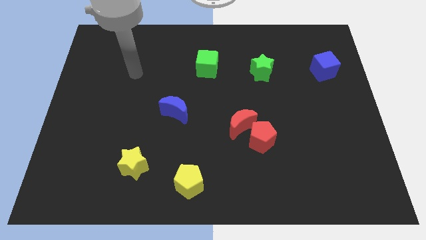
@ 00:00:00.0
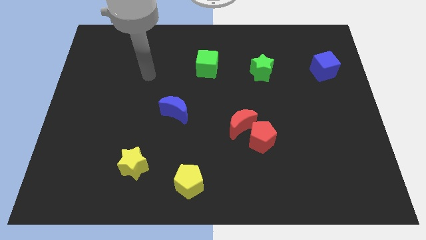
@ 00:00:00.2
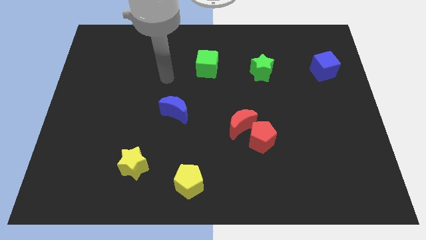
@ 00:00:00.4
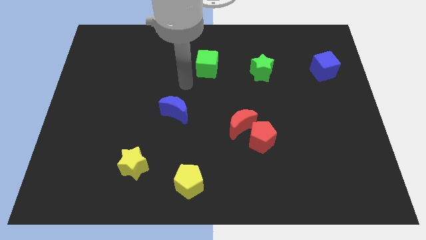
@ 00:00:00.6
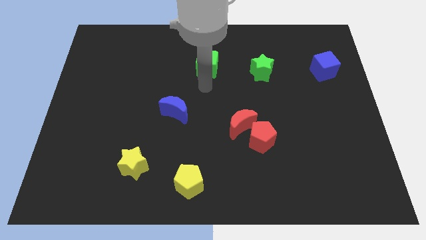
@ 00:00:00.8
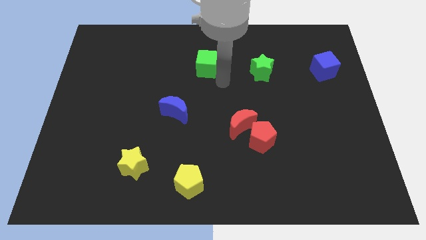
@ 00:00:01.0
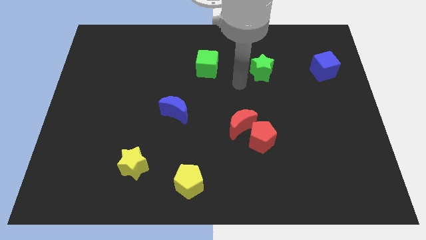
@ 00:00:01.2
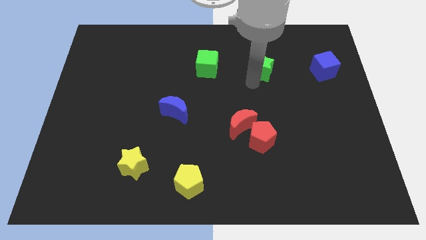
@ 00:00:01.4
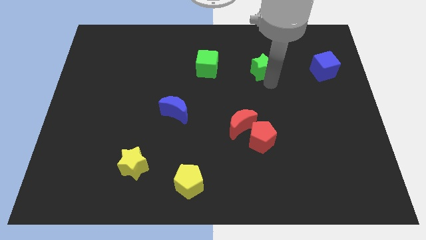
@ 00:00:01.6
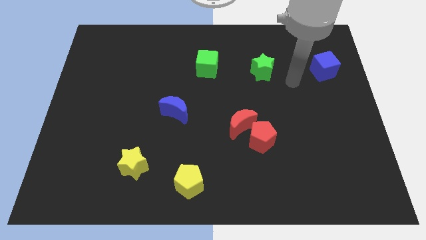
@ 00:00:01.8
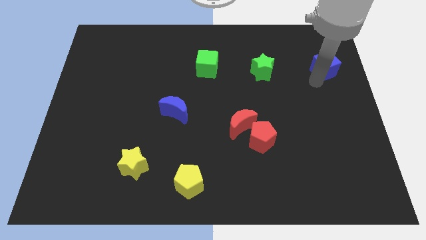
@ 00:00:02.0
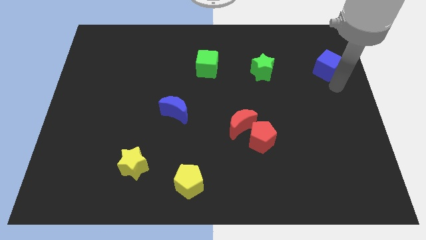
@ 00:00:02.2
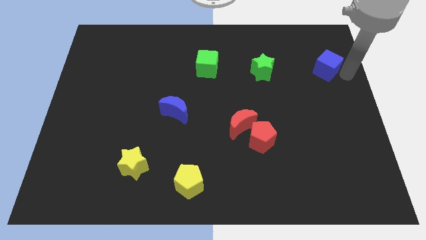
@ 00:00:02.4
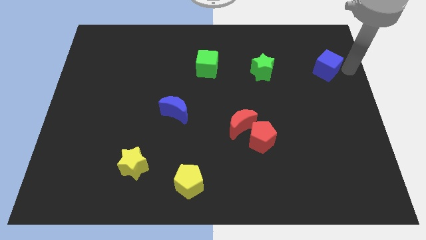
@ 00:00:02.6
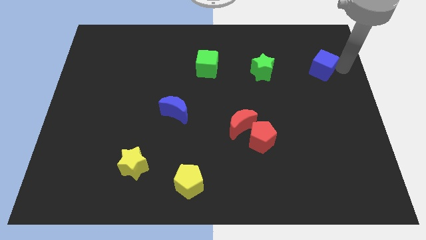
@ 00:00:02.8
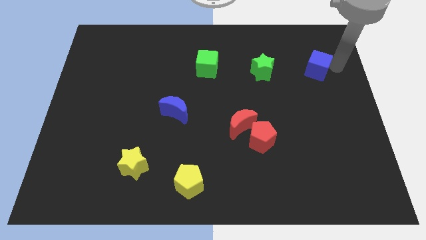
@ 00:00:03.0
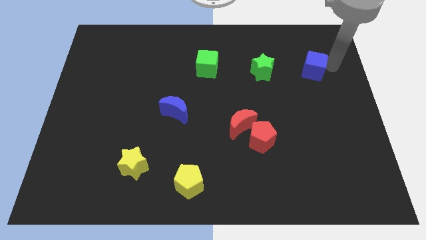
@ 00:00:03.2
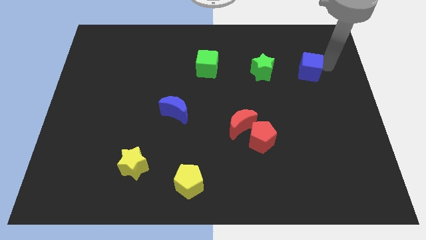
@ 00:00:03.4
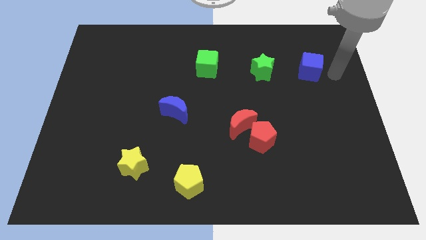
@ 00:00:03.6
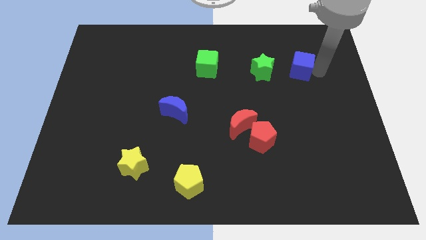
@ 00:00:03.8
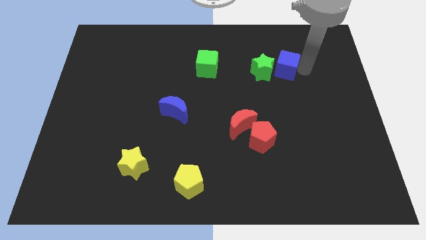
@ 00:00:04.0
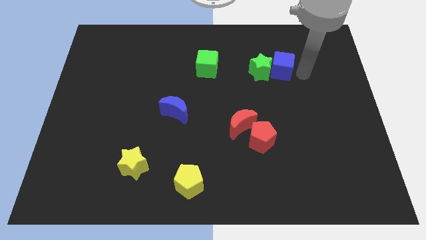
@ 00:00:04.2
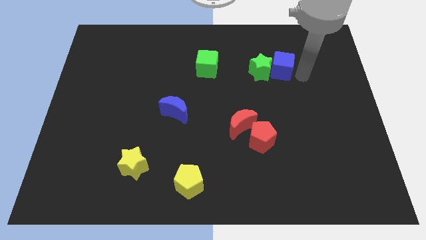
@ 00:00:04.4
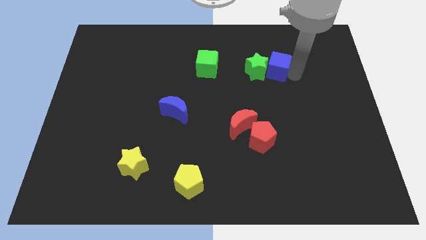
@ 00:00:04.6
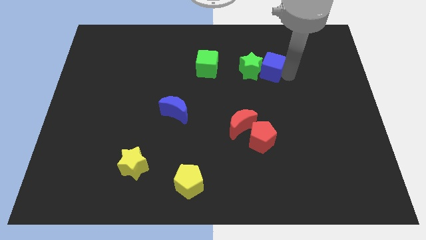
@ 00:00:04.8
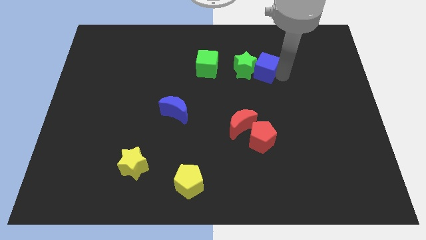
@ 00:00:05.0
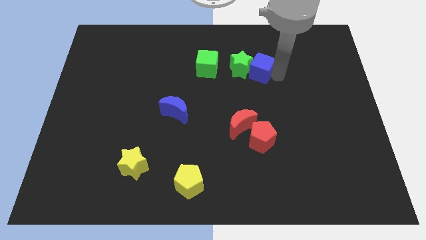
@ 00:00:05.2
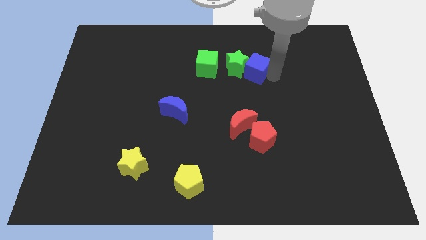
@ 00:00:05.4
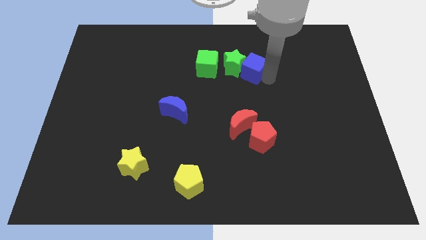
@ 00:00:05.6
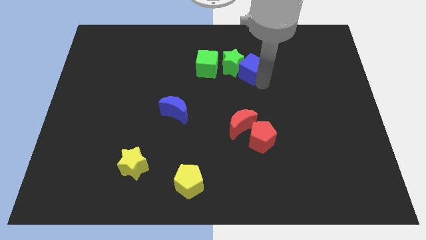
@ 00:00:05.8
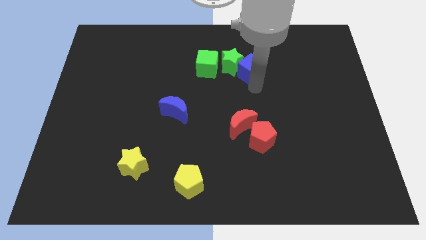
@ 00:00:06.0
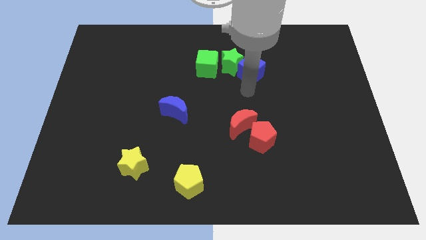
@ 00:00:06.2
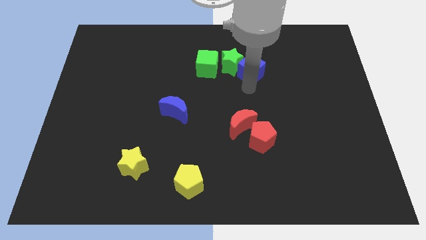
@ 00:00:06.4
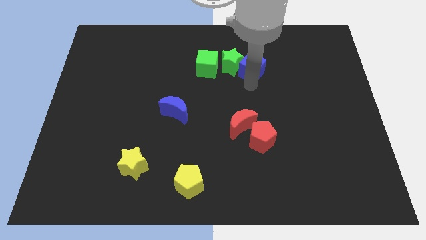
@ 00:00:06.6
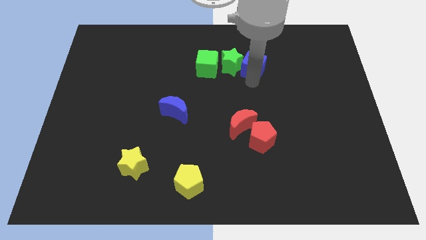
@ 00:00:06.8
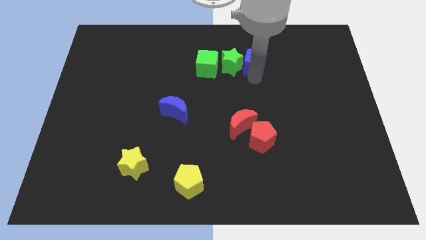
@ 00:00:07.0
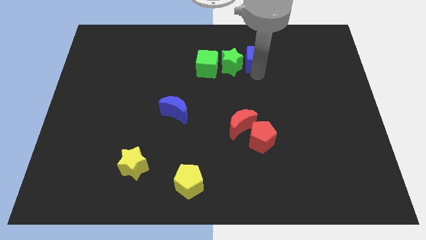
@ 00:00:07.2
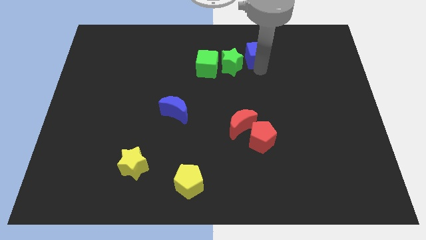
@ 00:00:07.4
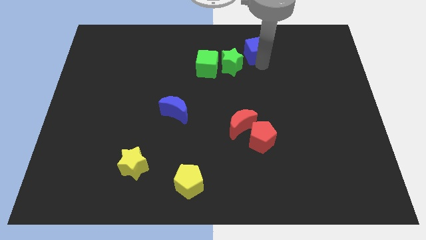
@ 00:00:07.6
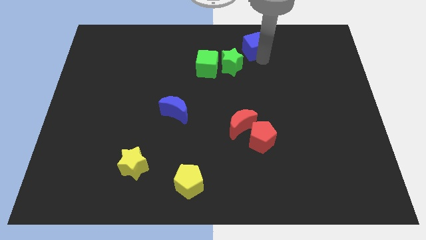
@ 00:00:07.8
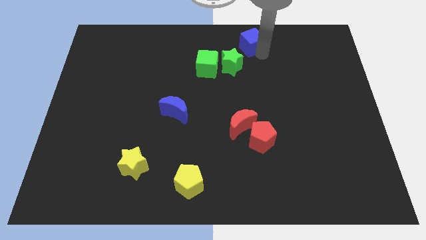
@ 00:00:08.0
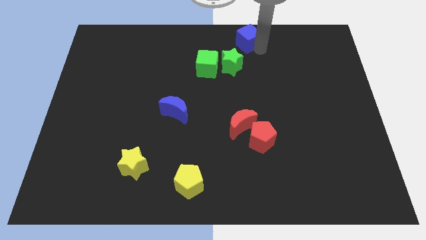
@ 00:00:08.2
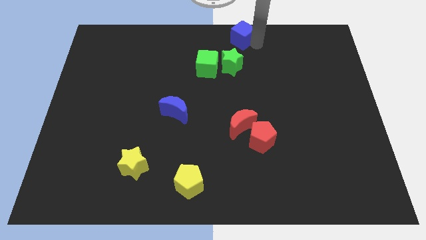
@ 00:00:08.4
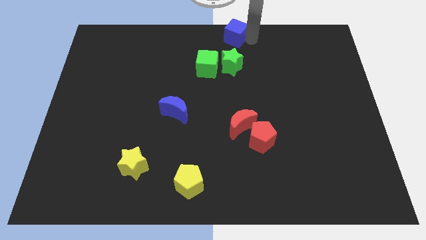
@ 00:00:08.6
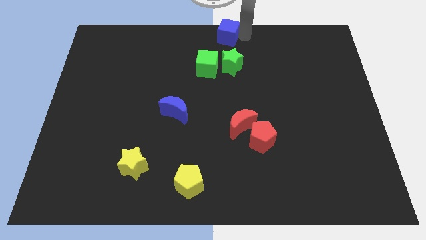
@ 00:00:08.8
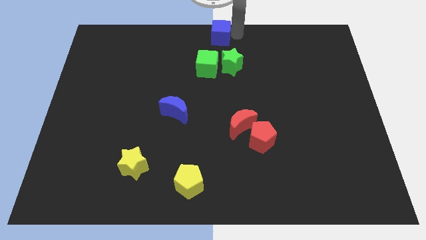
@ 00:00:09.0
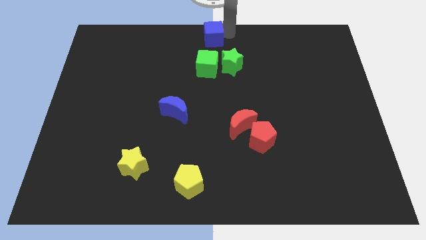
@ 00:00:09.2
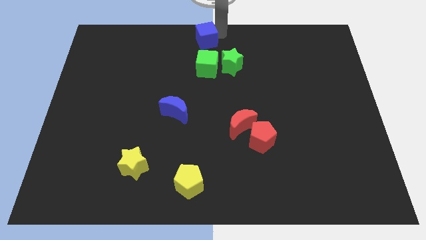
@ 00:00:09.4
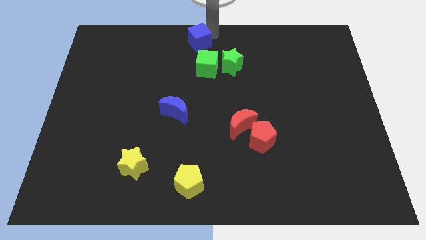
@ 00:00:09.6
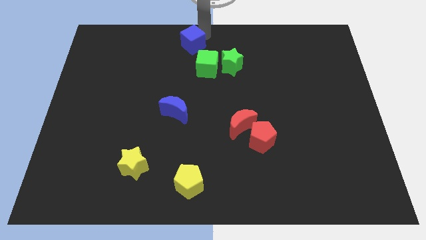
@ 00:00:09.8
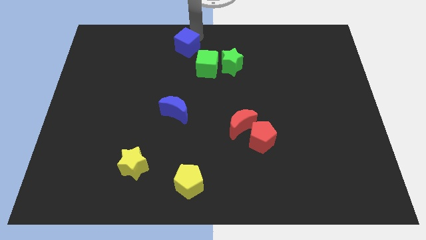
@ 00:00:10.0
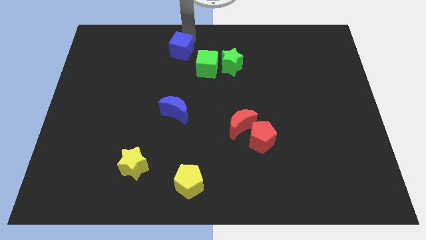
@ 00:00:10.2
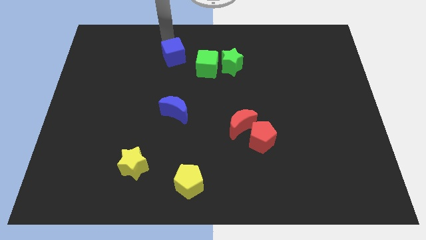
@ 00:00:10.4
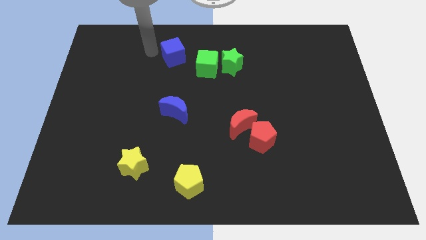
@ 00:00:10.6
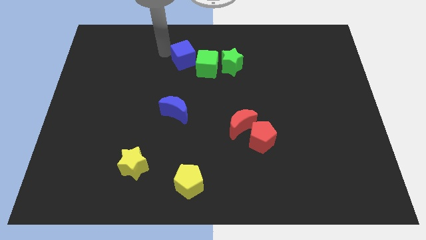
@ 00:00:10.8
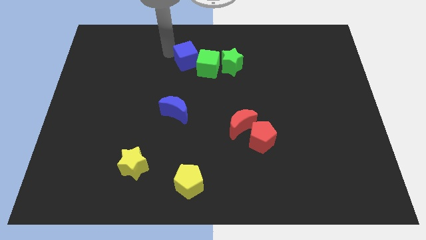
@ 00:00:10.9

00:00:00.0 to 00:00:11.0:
push the blue cube close to the green cube

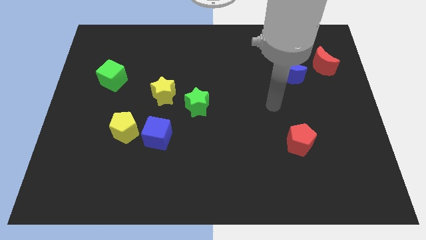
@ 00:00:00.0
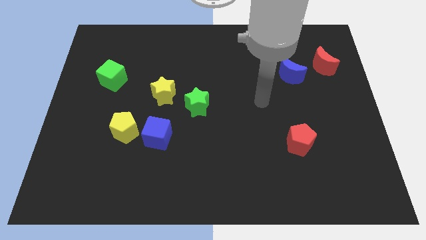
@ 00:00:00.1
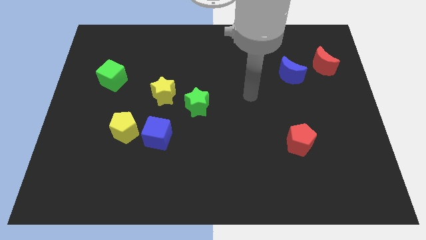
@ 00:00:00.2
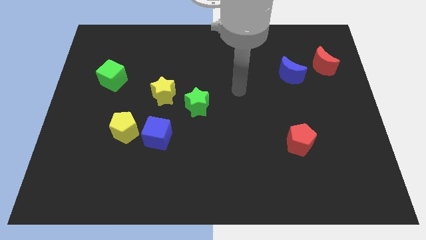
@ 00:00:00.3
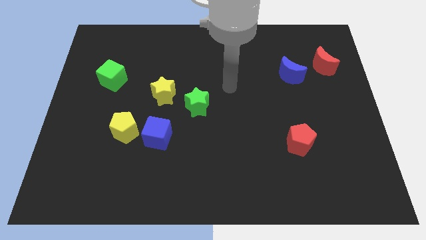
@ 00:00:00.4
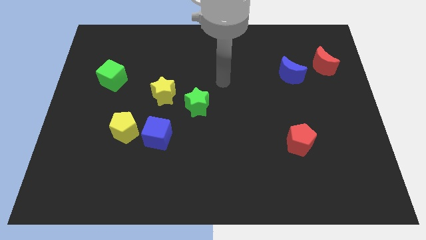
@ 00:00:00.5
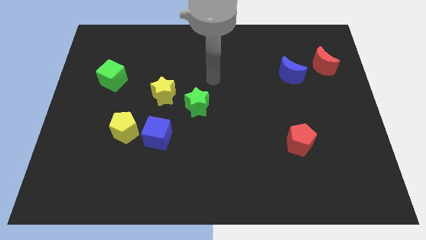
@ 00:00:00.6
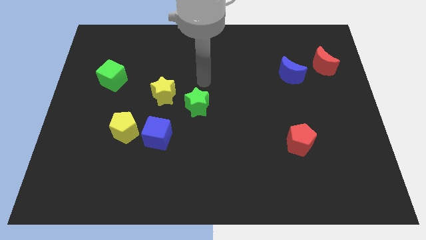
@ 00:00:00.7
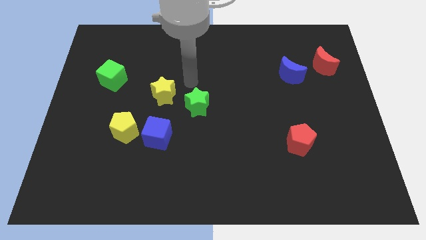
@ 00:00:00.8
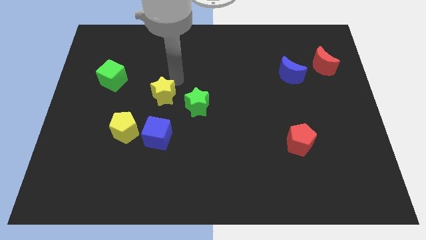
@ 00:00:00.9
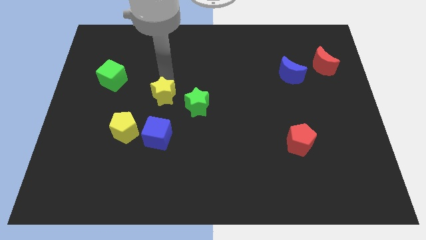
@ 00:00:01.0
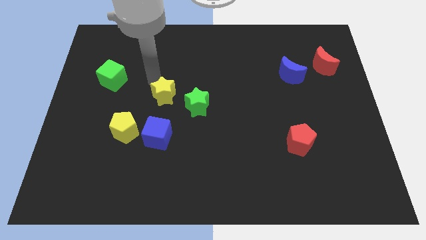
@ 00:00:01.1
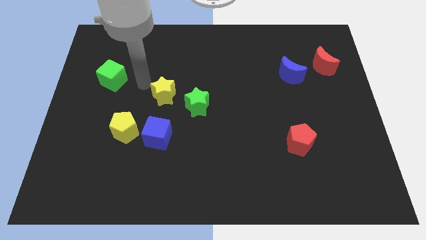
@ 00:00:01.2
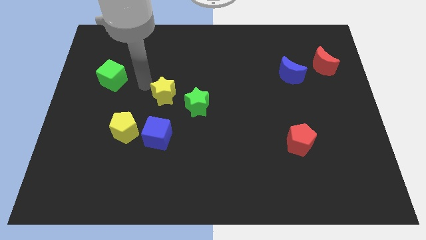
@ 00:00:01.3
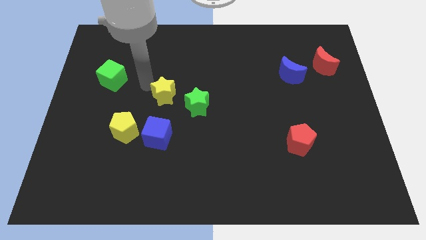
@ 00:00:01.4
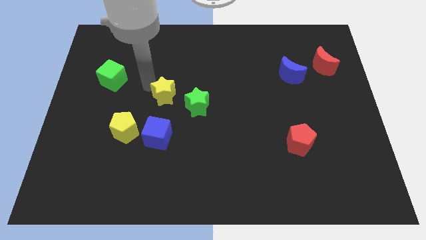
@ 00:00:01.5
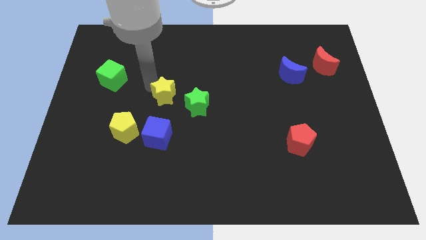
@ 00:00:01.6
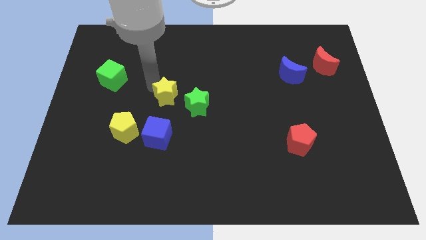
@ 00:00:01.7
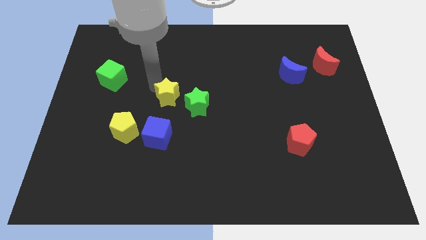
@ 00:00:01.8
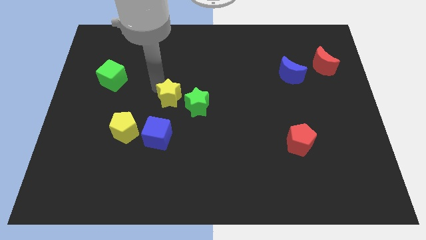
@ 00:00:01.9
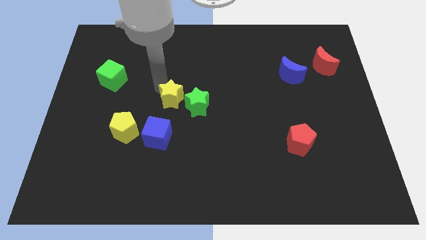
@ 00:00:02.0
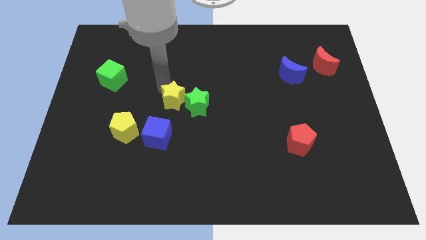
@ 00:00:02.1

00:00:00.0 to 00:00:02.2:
move the yellow star to the green star

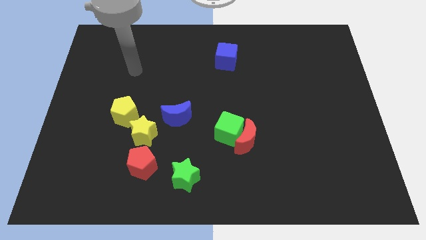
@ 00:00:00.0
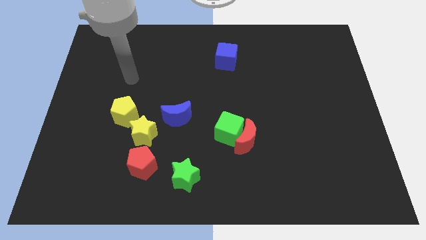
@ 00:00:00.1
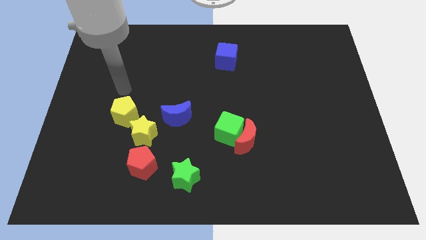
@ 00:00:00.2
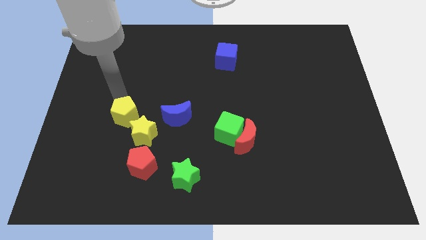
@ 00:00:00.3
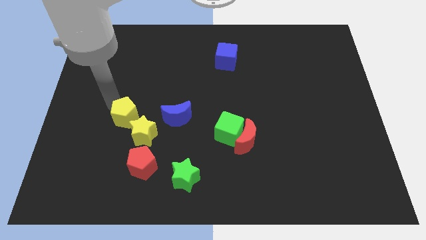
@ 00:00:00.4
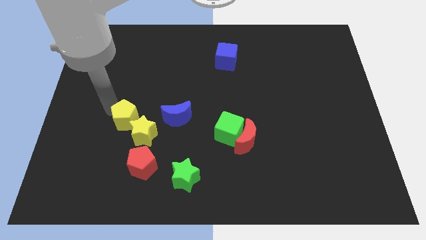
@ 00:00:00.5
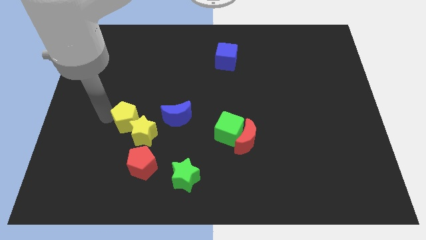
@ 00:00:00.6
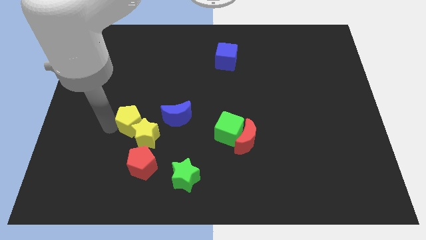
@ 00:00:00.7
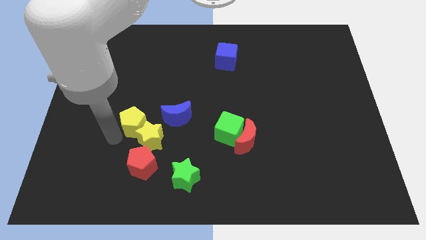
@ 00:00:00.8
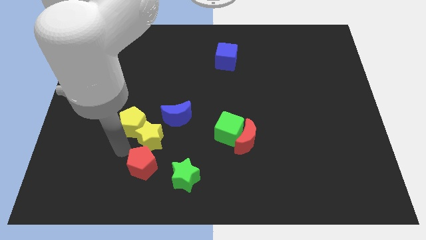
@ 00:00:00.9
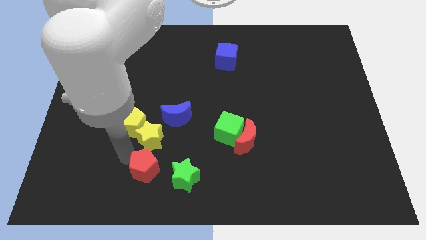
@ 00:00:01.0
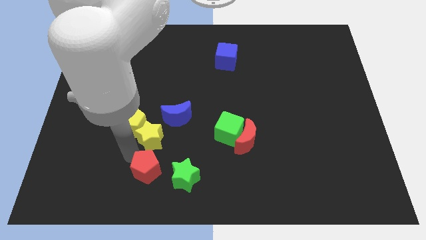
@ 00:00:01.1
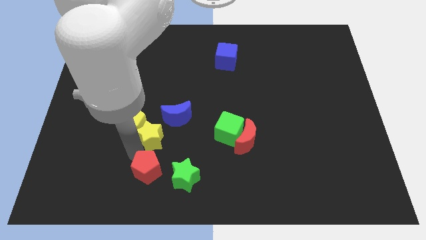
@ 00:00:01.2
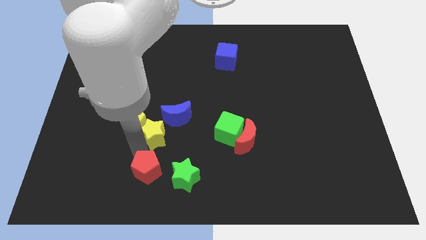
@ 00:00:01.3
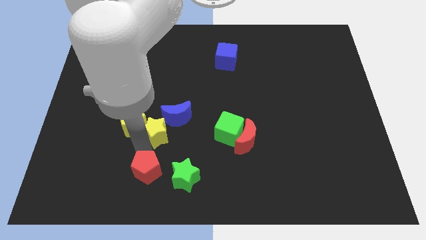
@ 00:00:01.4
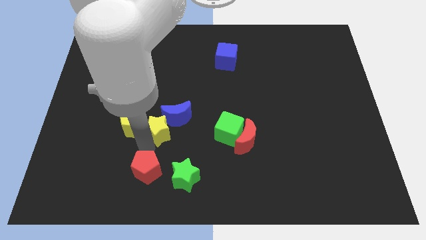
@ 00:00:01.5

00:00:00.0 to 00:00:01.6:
slide the yellow star next to the blue moon
